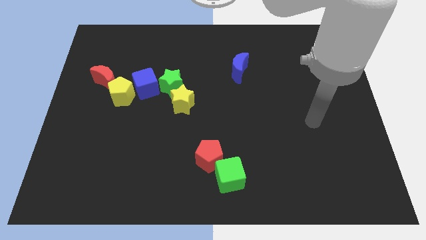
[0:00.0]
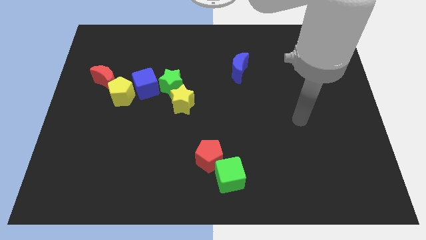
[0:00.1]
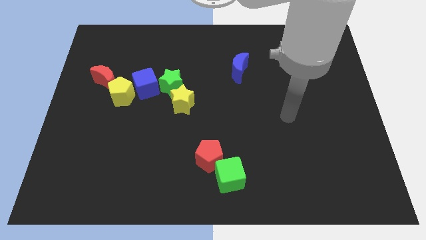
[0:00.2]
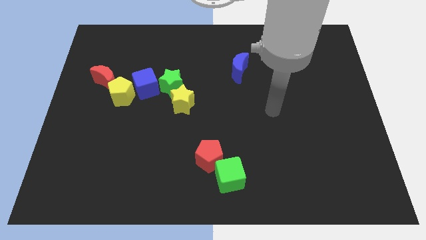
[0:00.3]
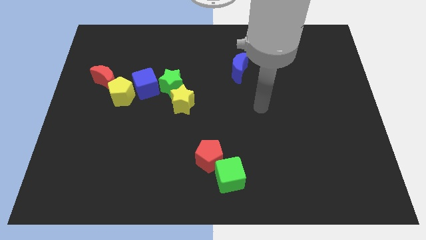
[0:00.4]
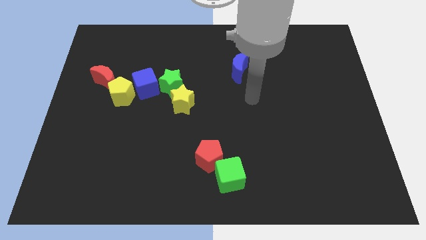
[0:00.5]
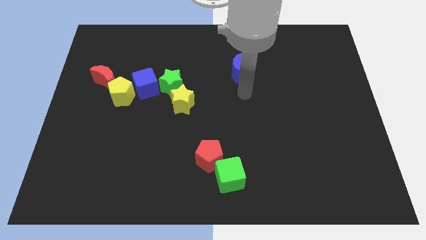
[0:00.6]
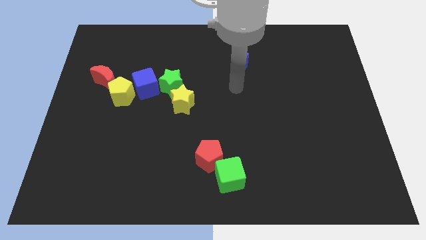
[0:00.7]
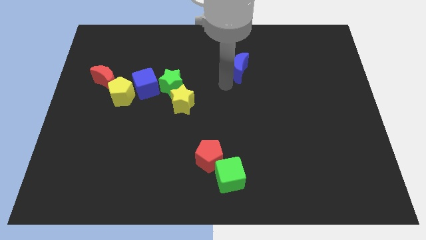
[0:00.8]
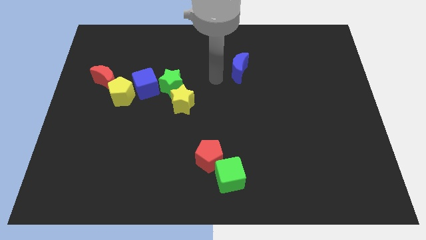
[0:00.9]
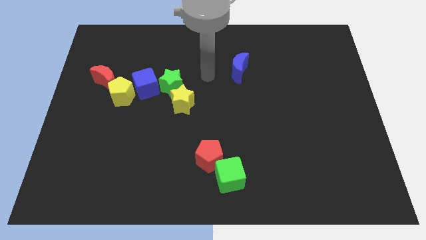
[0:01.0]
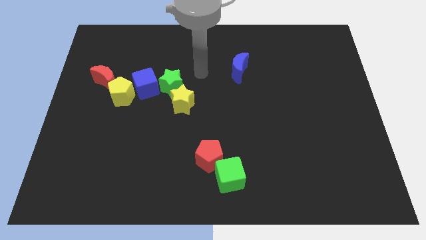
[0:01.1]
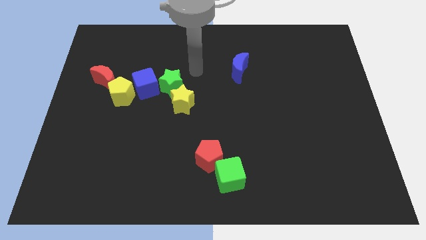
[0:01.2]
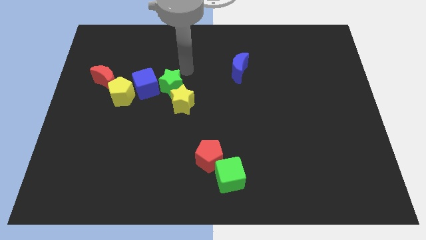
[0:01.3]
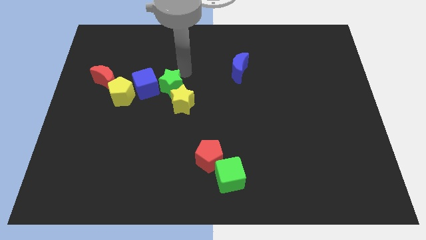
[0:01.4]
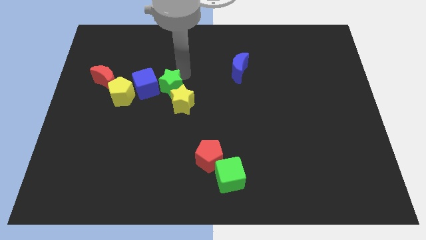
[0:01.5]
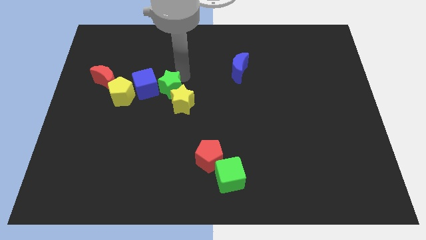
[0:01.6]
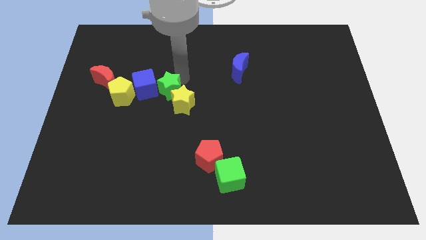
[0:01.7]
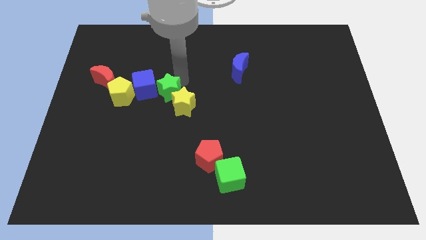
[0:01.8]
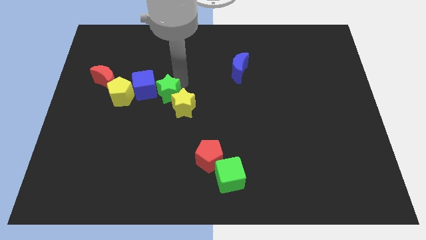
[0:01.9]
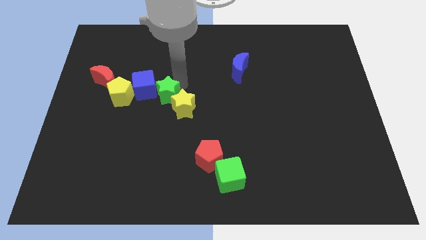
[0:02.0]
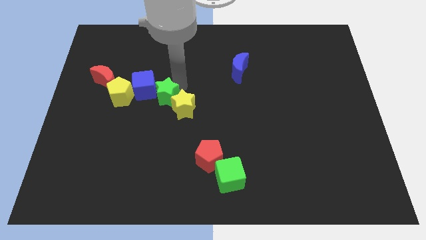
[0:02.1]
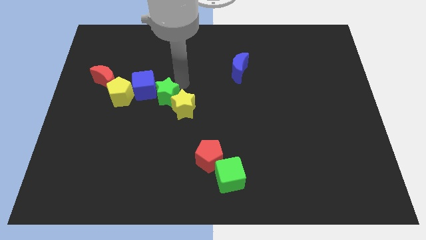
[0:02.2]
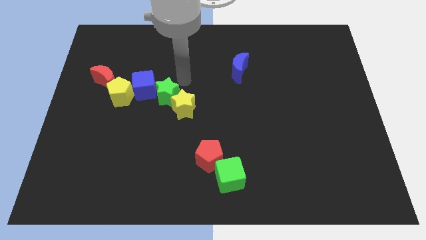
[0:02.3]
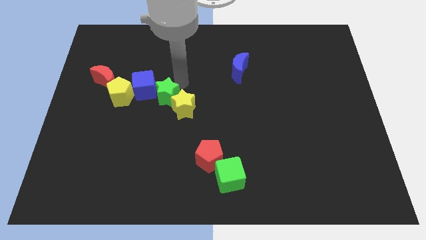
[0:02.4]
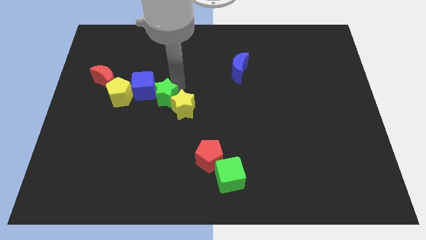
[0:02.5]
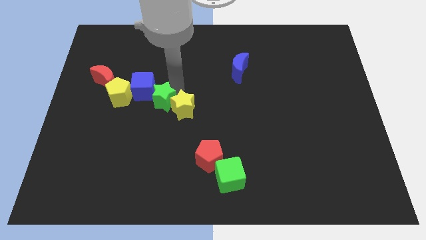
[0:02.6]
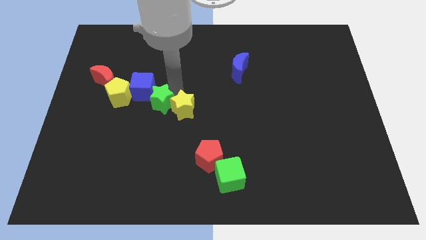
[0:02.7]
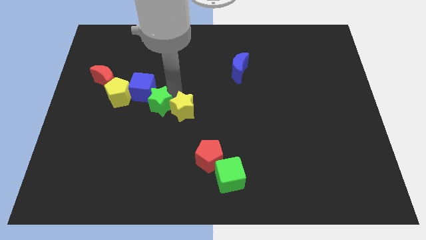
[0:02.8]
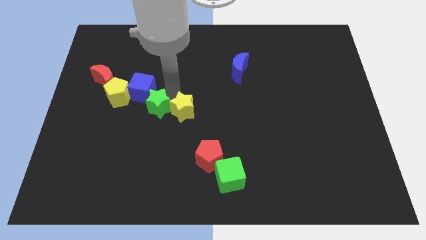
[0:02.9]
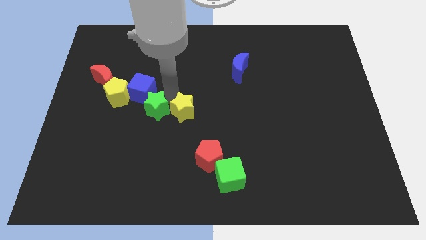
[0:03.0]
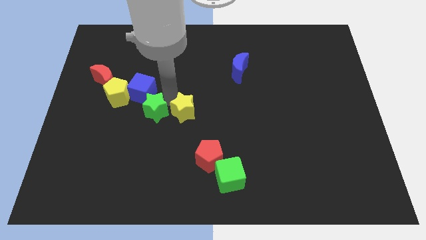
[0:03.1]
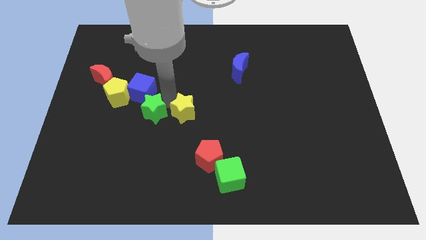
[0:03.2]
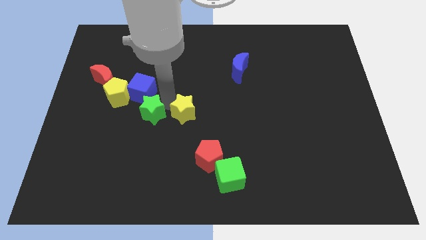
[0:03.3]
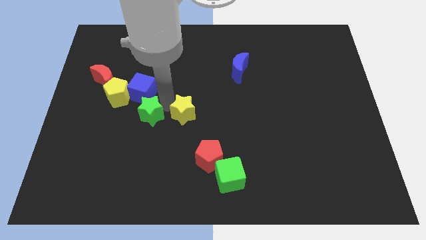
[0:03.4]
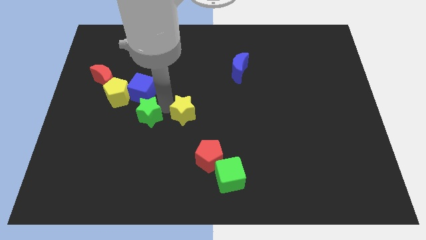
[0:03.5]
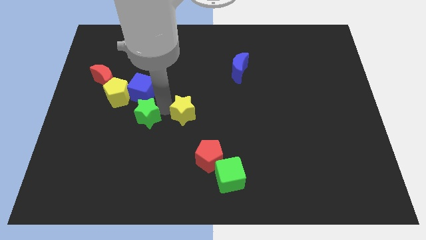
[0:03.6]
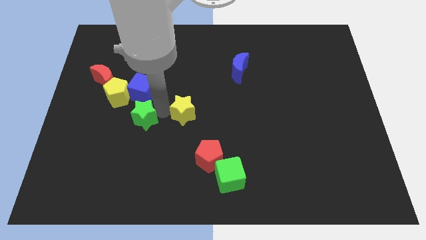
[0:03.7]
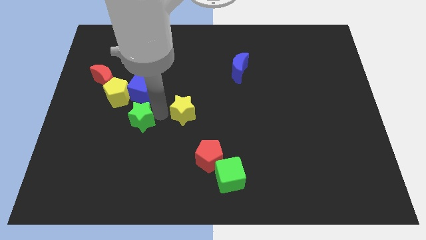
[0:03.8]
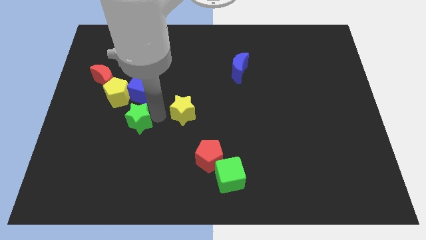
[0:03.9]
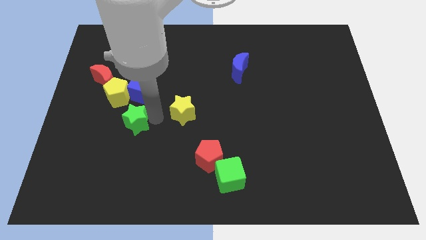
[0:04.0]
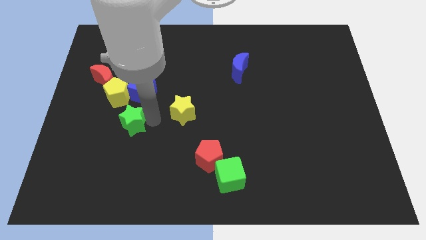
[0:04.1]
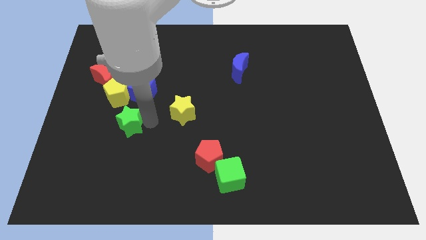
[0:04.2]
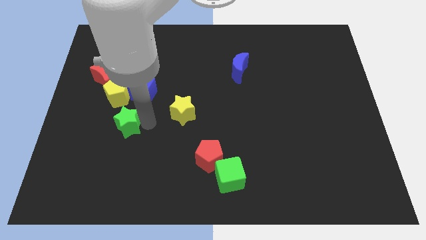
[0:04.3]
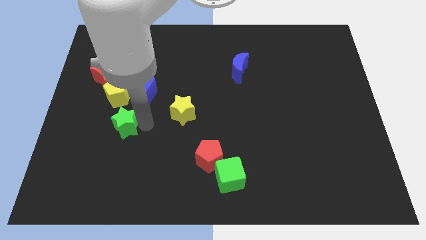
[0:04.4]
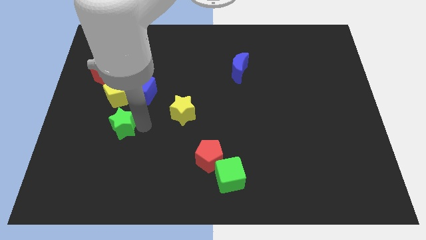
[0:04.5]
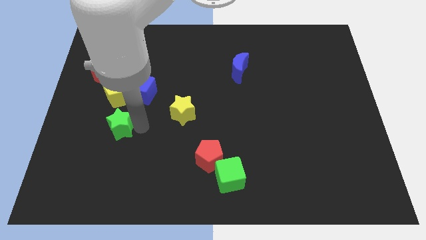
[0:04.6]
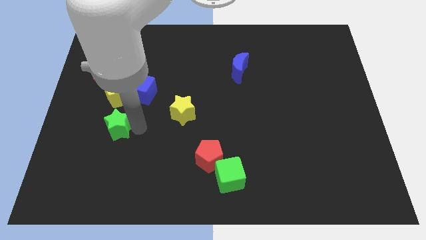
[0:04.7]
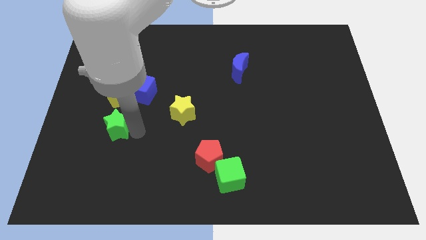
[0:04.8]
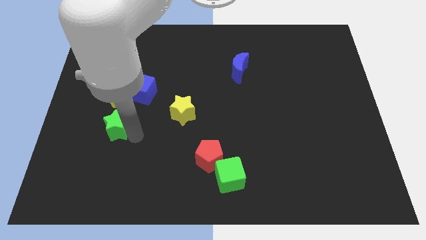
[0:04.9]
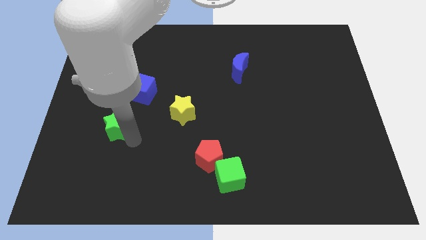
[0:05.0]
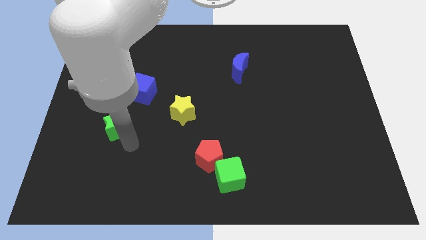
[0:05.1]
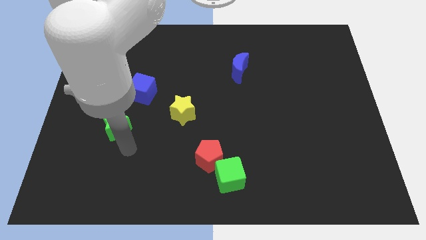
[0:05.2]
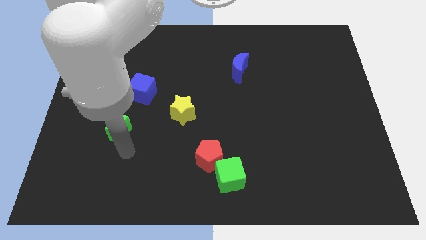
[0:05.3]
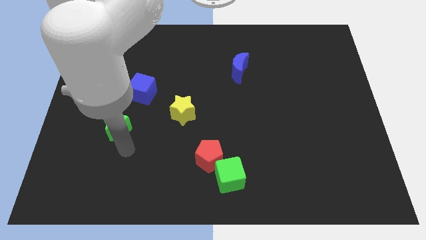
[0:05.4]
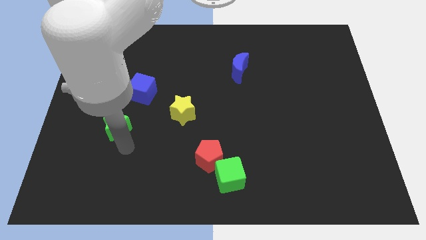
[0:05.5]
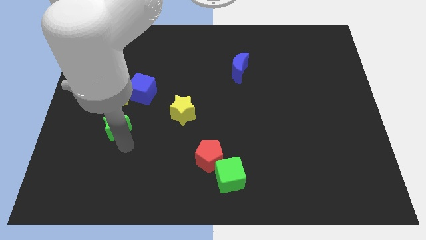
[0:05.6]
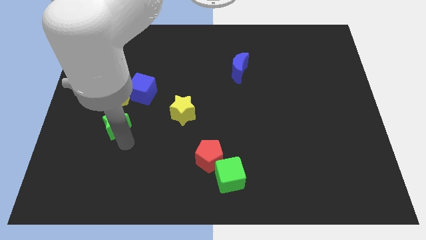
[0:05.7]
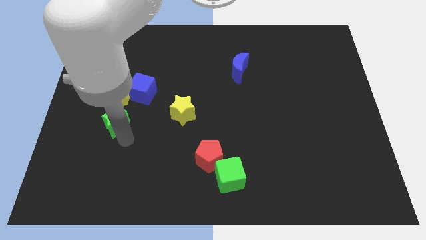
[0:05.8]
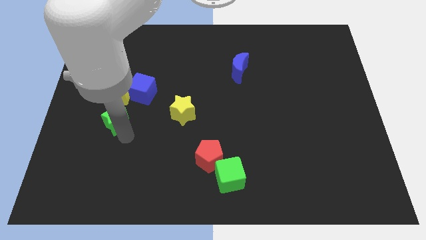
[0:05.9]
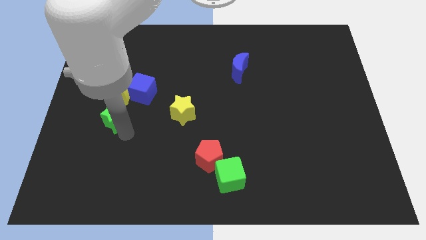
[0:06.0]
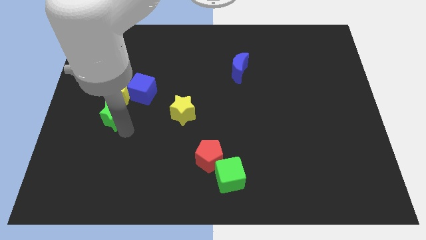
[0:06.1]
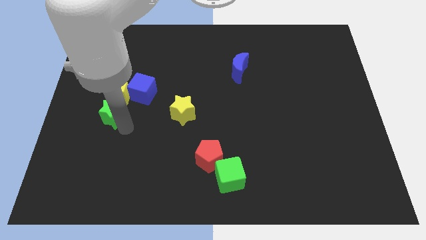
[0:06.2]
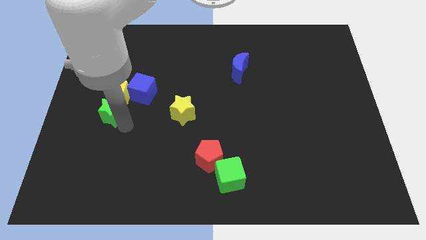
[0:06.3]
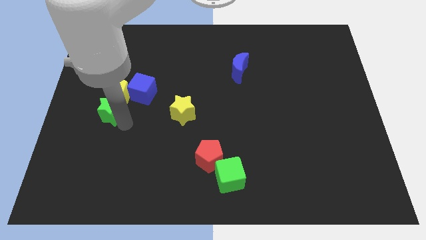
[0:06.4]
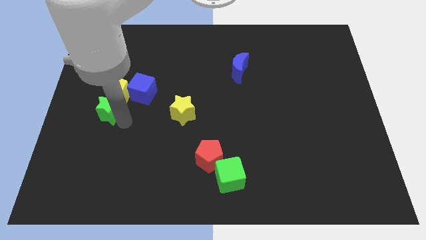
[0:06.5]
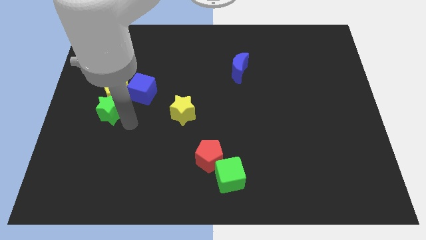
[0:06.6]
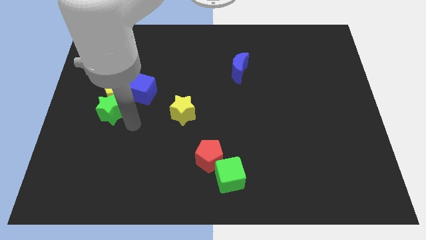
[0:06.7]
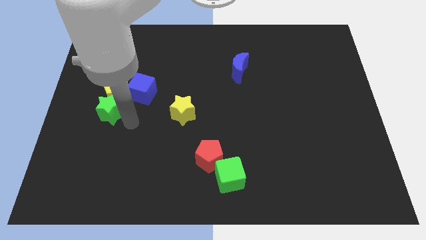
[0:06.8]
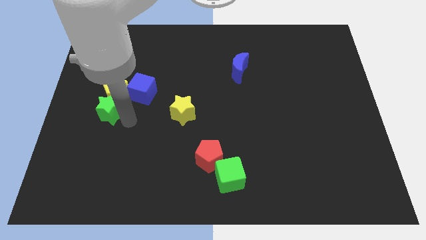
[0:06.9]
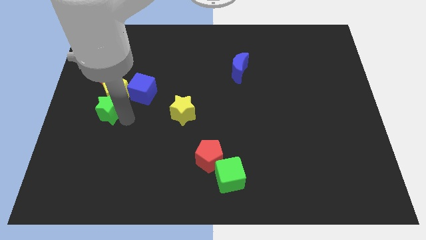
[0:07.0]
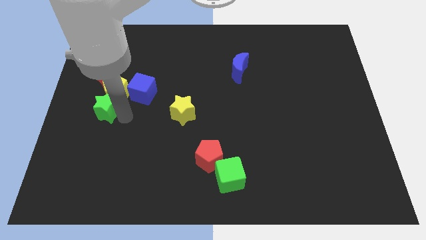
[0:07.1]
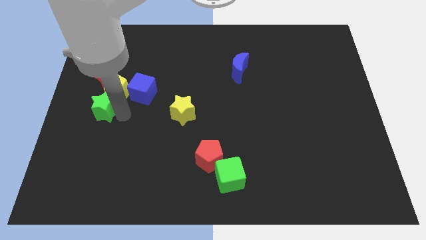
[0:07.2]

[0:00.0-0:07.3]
move the green star to the left side of the board
